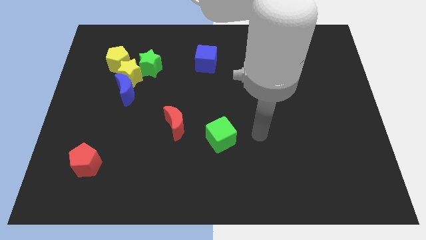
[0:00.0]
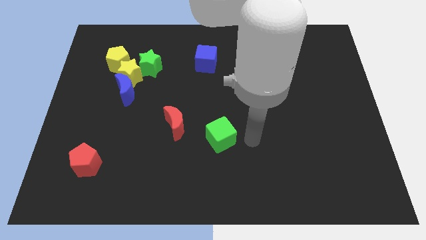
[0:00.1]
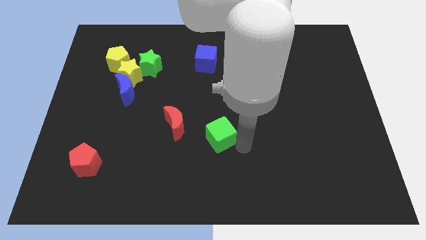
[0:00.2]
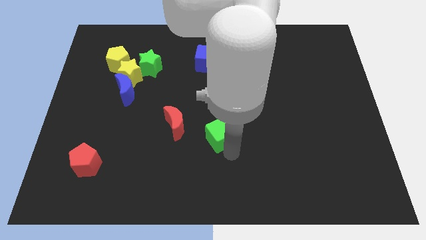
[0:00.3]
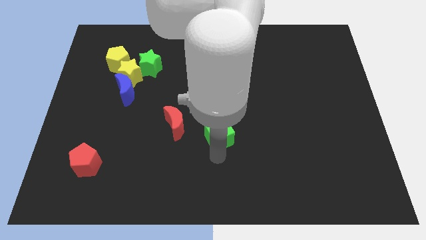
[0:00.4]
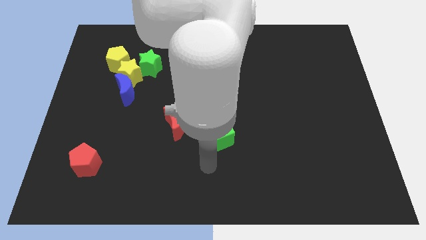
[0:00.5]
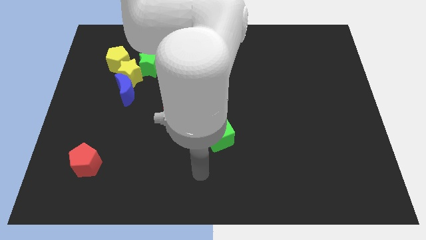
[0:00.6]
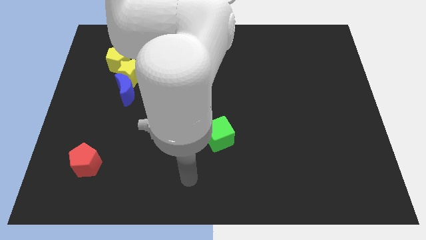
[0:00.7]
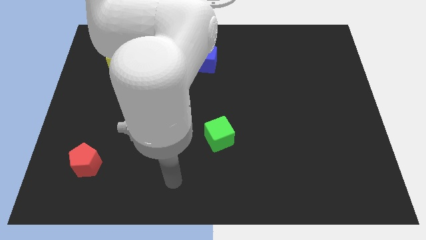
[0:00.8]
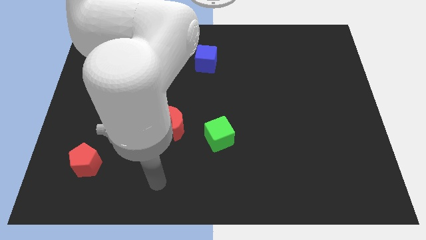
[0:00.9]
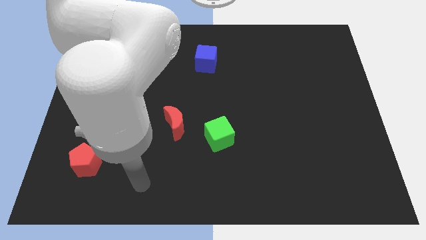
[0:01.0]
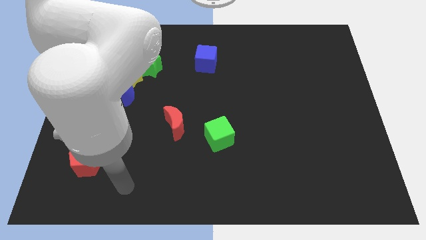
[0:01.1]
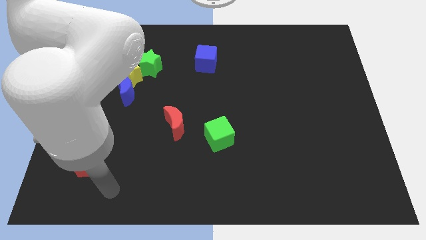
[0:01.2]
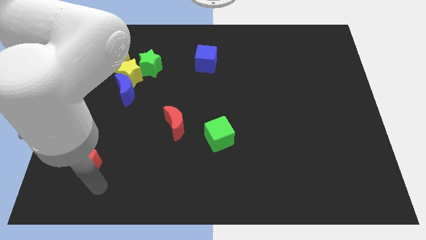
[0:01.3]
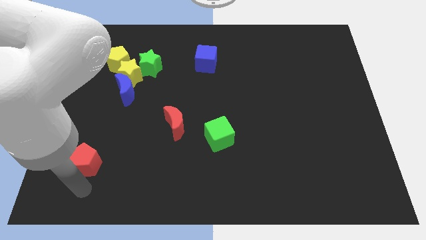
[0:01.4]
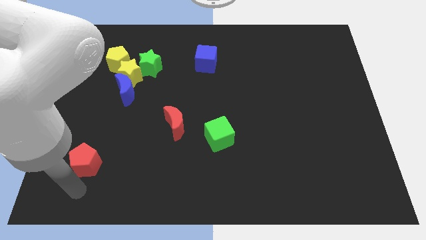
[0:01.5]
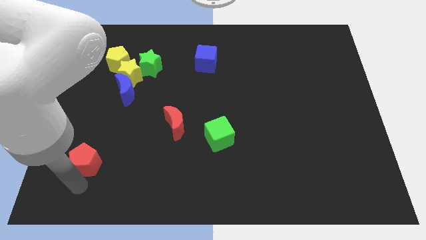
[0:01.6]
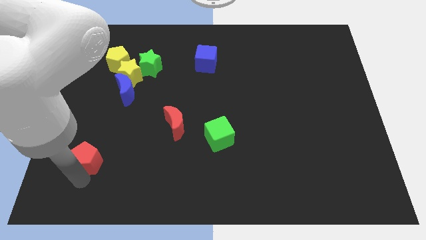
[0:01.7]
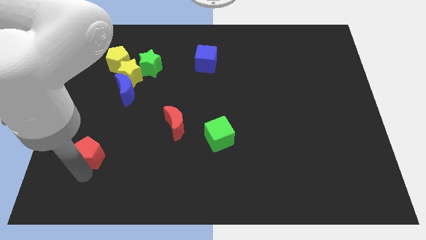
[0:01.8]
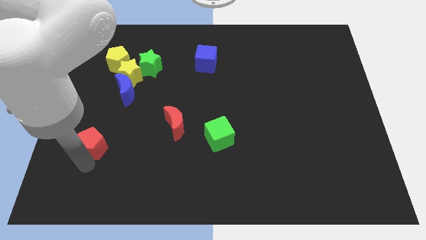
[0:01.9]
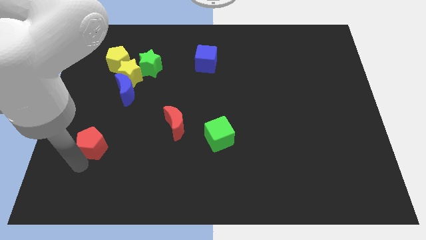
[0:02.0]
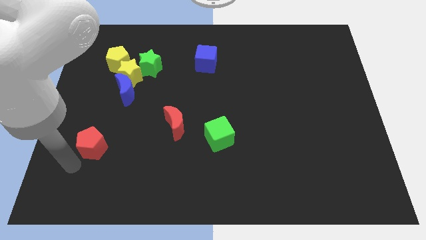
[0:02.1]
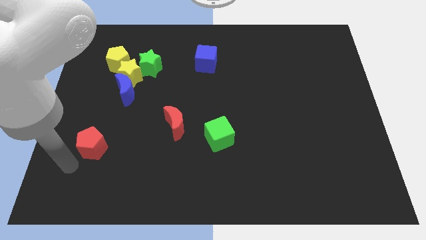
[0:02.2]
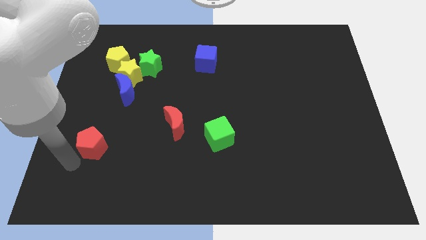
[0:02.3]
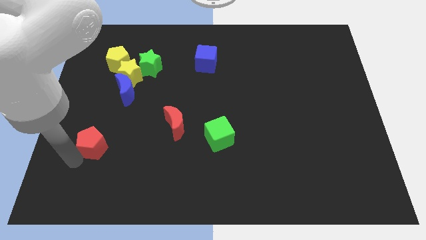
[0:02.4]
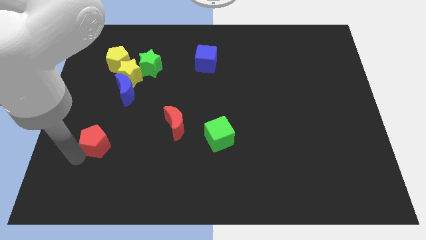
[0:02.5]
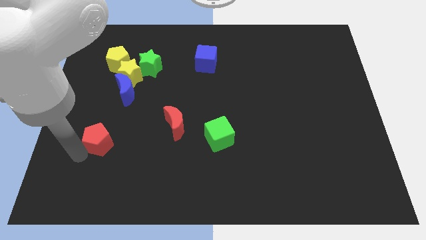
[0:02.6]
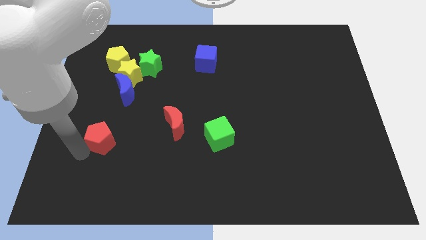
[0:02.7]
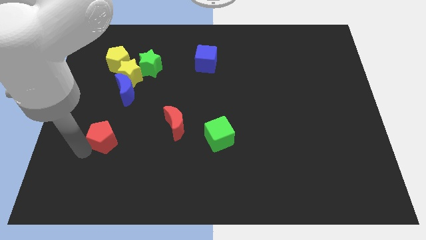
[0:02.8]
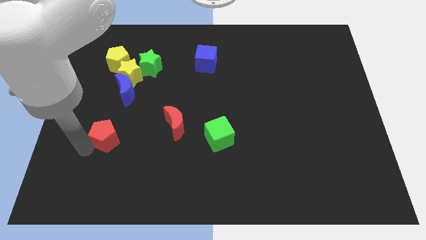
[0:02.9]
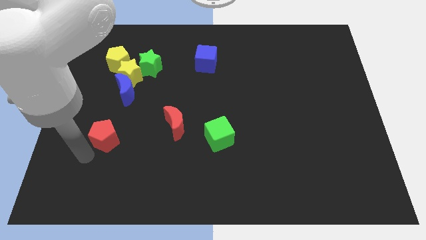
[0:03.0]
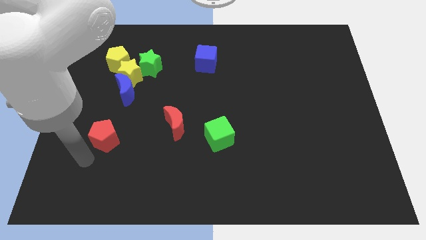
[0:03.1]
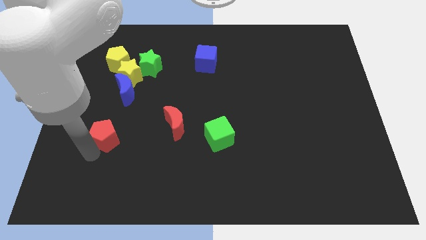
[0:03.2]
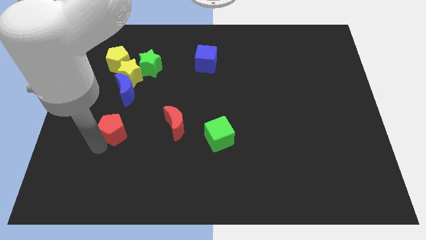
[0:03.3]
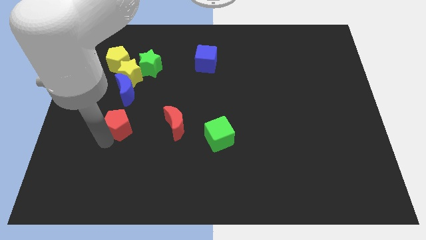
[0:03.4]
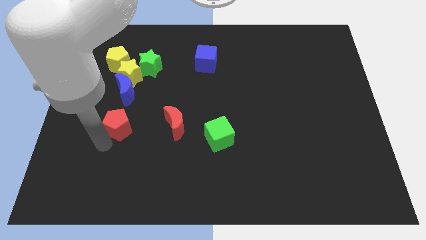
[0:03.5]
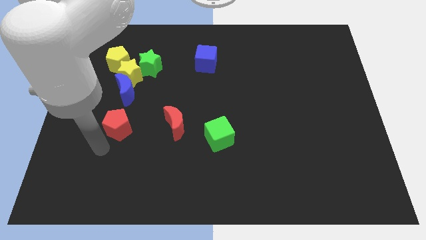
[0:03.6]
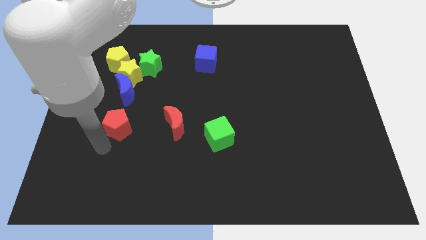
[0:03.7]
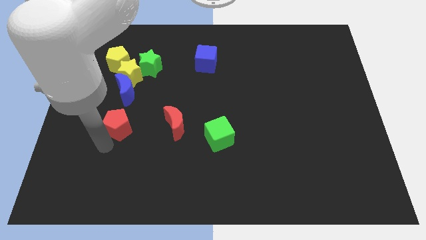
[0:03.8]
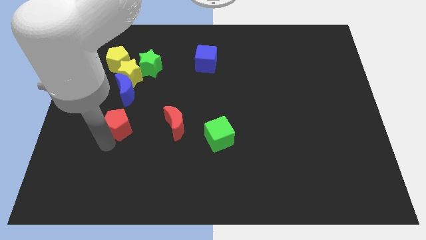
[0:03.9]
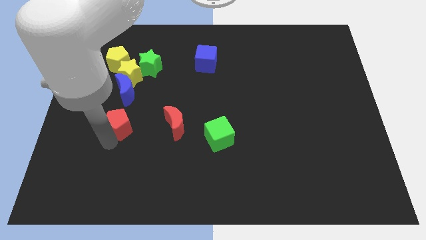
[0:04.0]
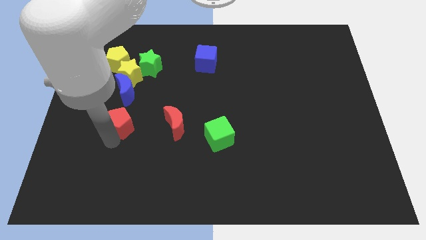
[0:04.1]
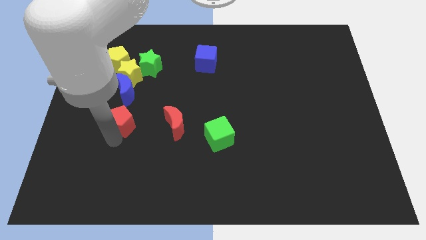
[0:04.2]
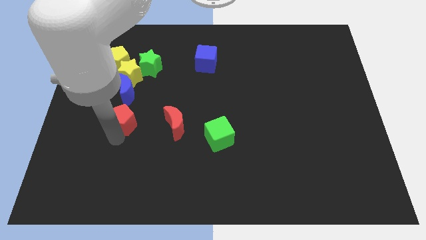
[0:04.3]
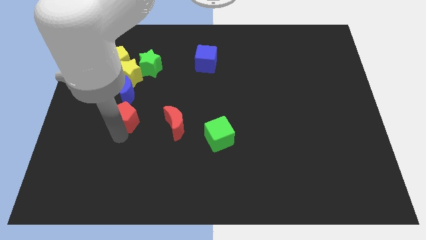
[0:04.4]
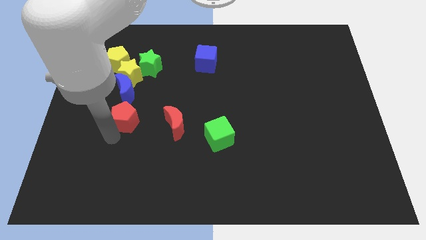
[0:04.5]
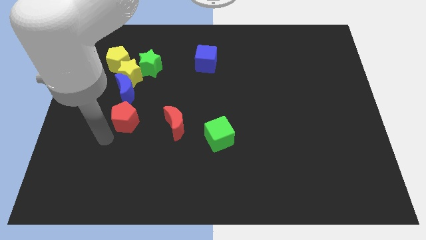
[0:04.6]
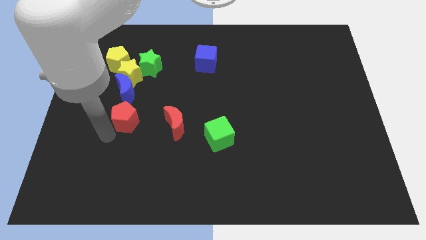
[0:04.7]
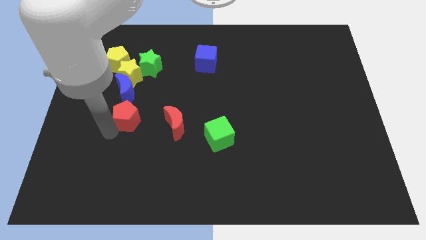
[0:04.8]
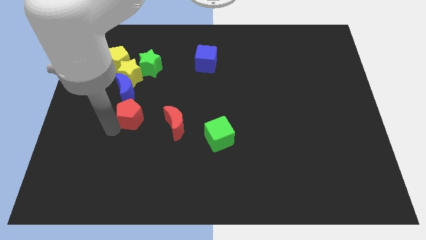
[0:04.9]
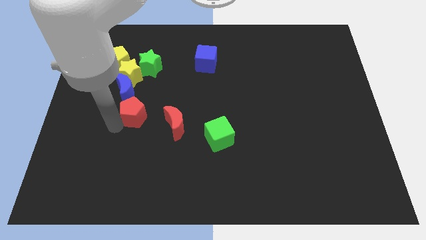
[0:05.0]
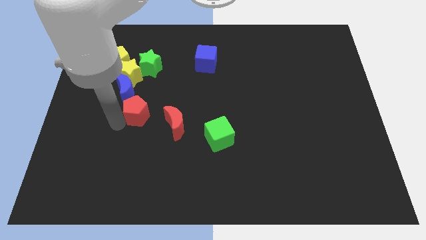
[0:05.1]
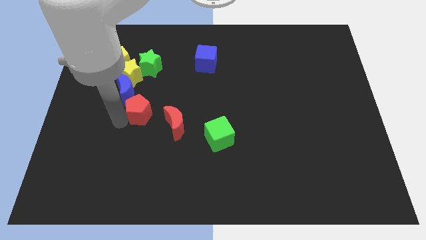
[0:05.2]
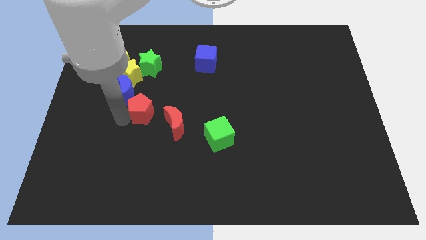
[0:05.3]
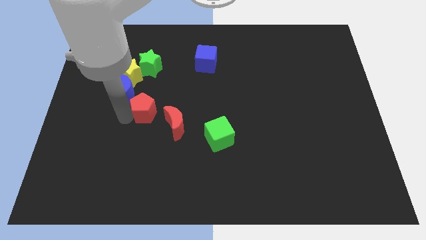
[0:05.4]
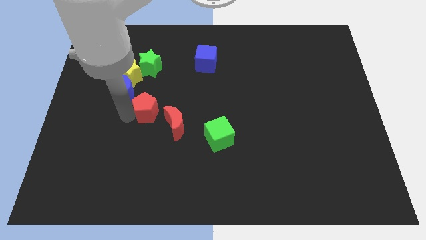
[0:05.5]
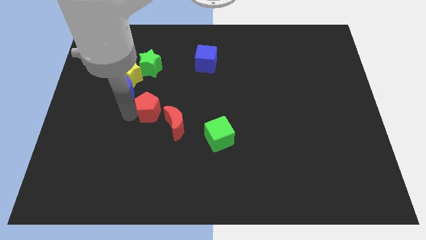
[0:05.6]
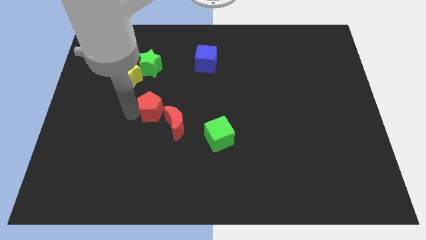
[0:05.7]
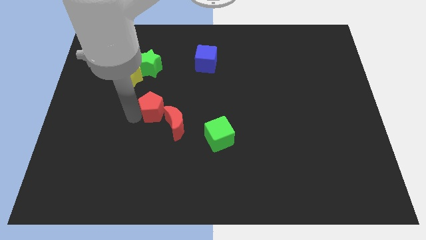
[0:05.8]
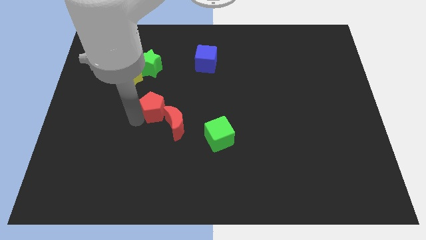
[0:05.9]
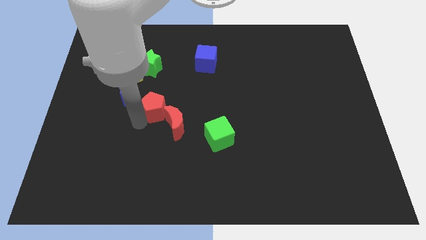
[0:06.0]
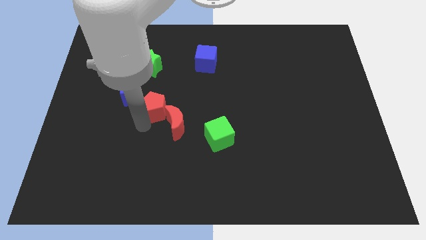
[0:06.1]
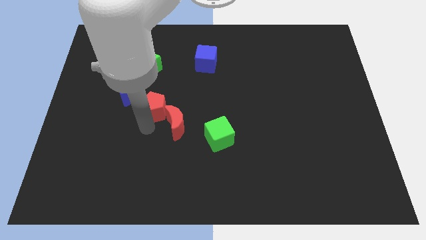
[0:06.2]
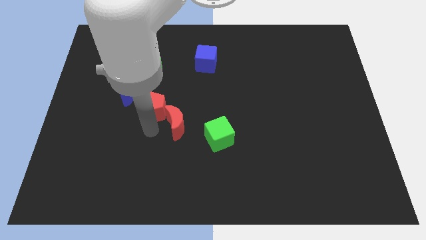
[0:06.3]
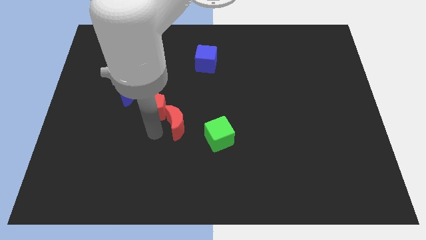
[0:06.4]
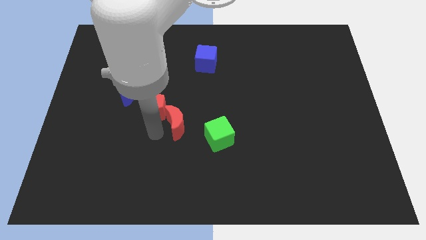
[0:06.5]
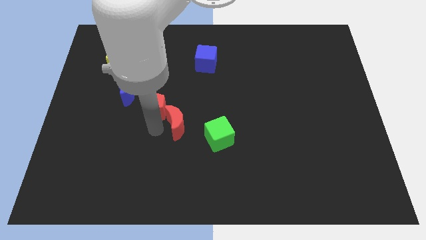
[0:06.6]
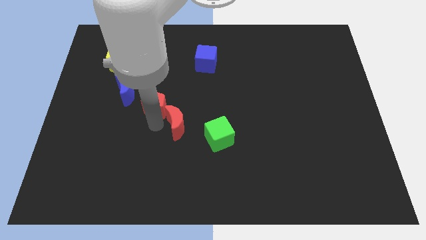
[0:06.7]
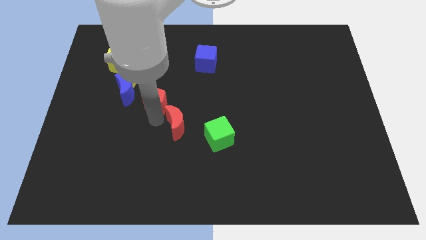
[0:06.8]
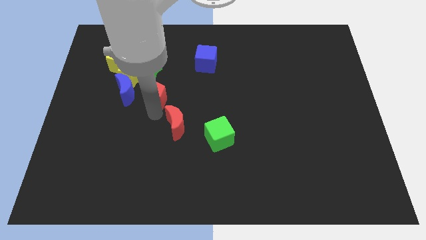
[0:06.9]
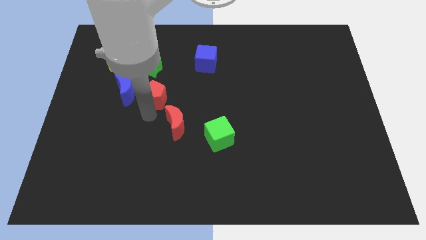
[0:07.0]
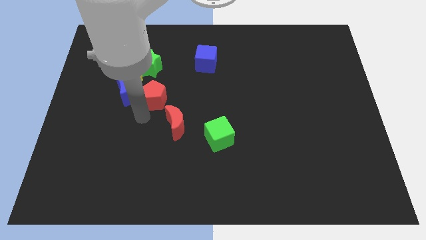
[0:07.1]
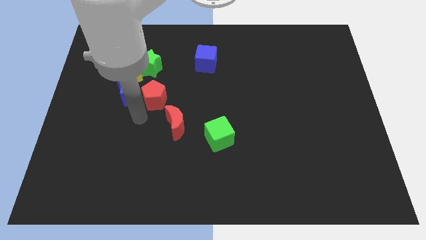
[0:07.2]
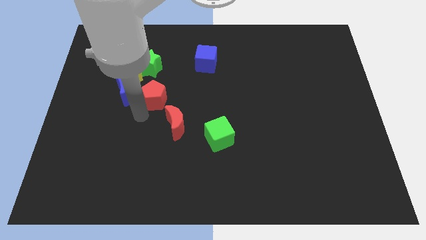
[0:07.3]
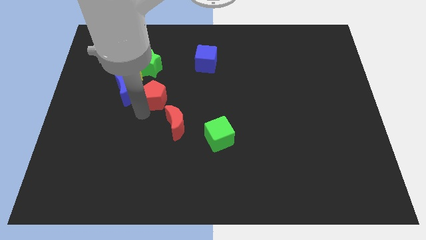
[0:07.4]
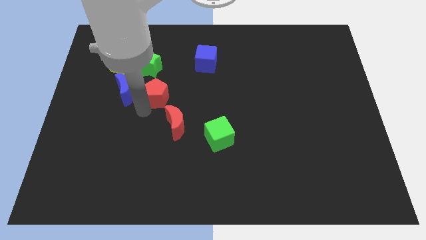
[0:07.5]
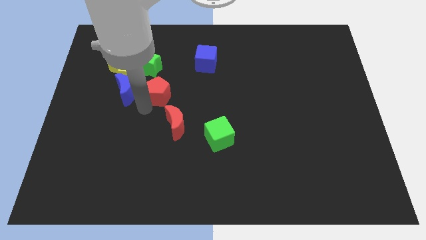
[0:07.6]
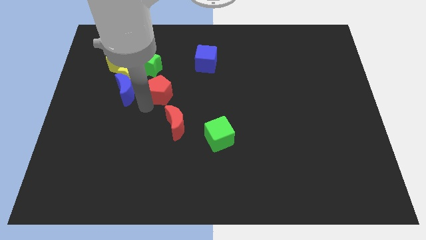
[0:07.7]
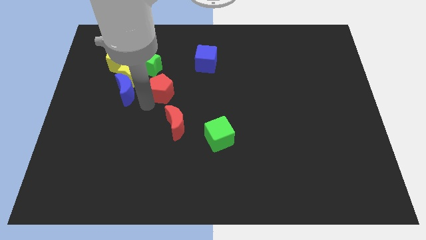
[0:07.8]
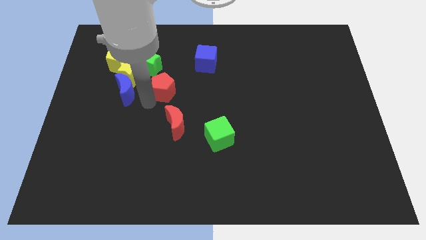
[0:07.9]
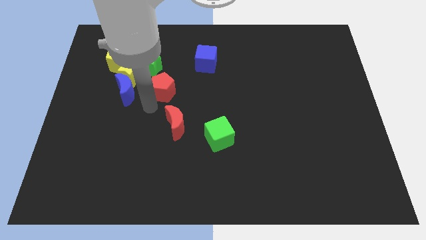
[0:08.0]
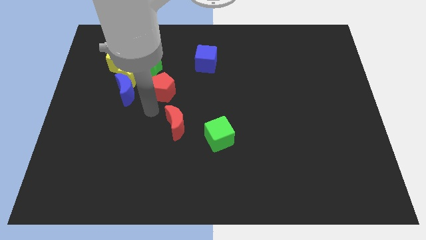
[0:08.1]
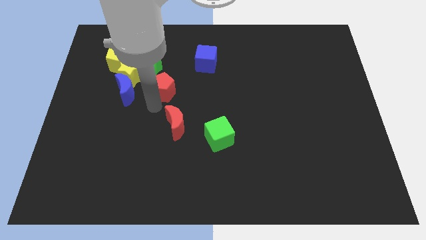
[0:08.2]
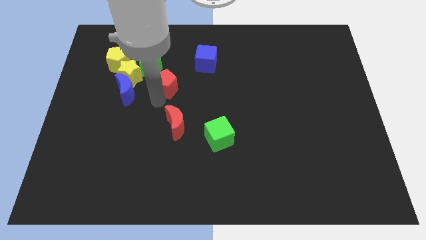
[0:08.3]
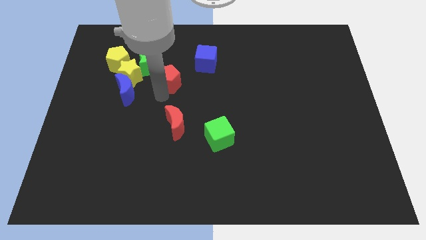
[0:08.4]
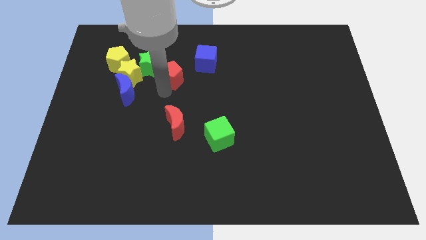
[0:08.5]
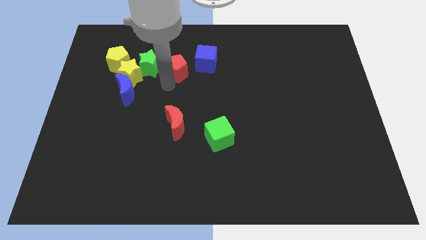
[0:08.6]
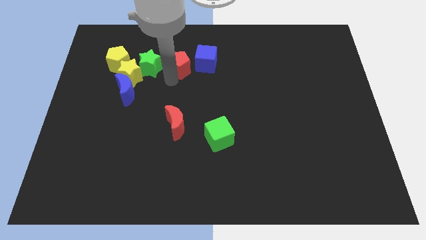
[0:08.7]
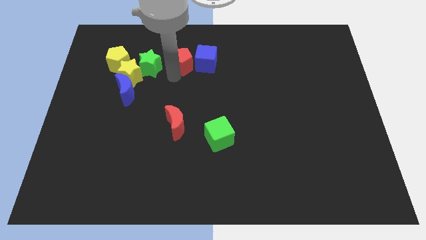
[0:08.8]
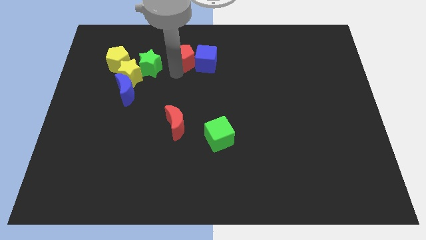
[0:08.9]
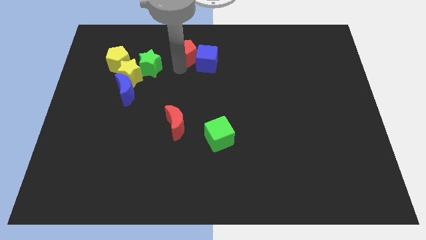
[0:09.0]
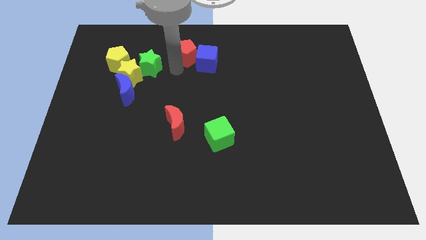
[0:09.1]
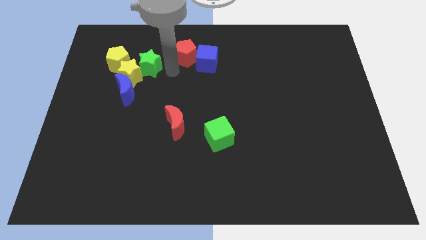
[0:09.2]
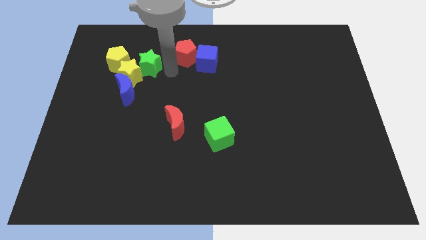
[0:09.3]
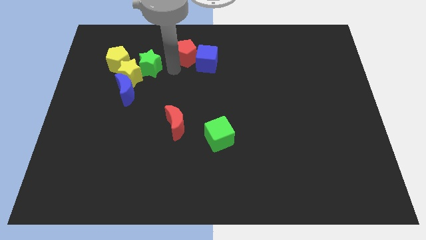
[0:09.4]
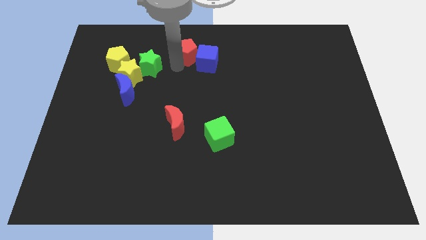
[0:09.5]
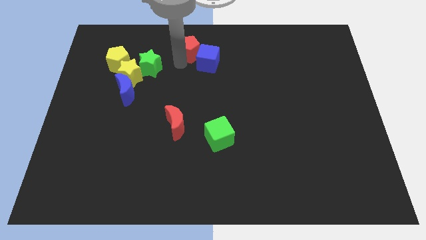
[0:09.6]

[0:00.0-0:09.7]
slide the red pentagon to the top
